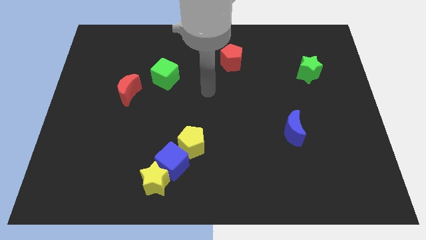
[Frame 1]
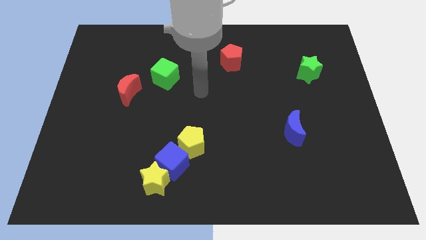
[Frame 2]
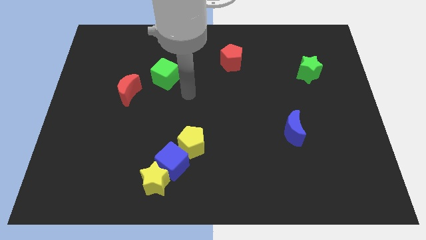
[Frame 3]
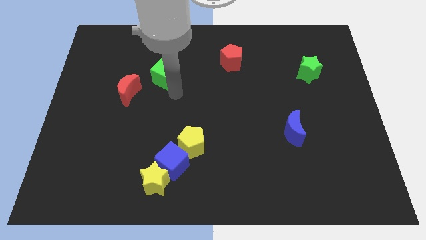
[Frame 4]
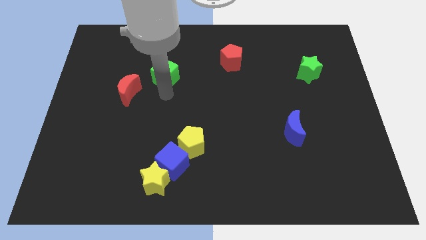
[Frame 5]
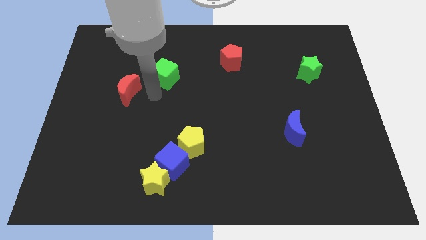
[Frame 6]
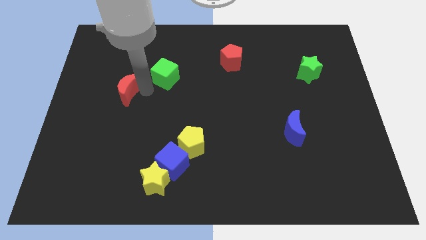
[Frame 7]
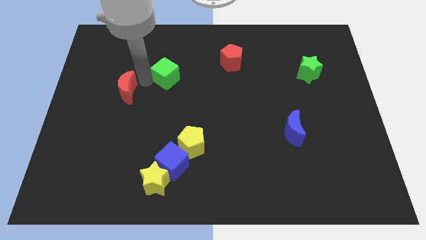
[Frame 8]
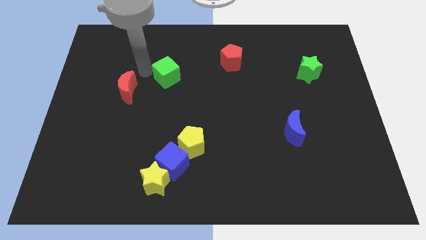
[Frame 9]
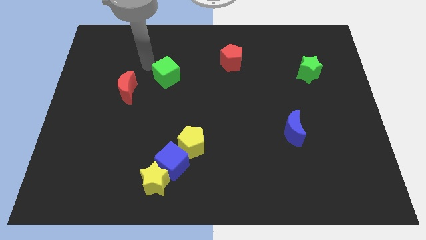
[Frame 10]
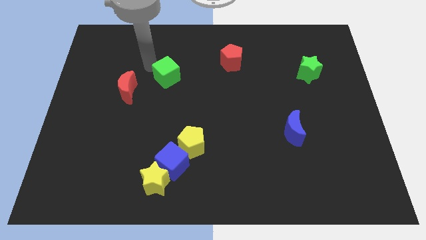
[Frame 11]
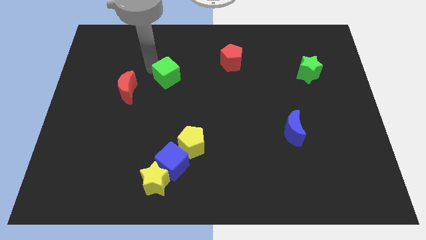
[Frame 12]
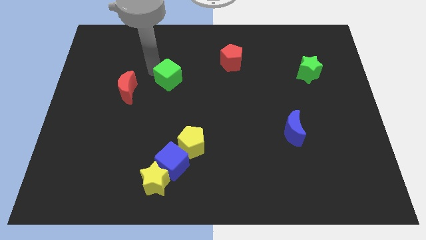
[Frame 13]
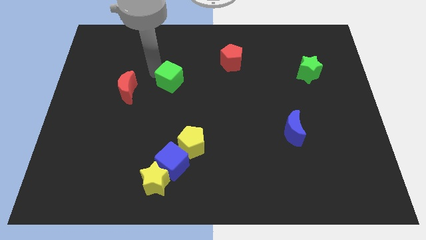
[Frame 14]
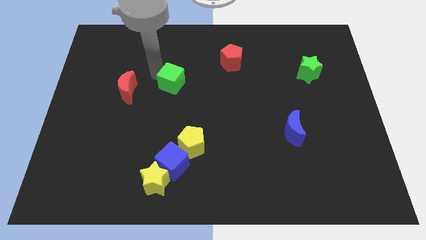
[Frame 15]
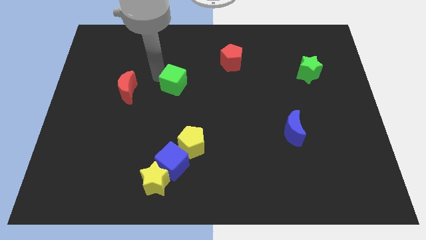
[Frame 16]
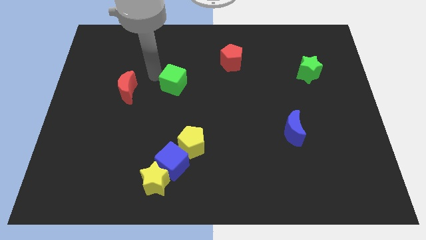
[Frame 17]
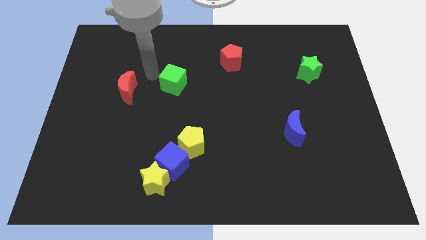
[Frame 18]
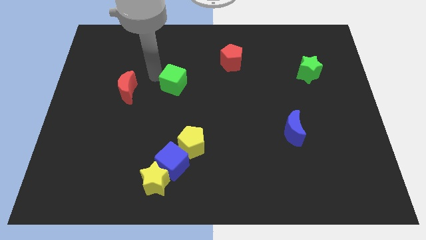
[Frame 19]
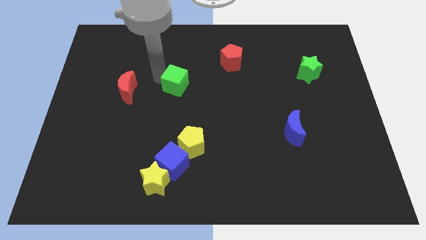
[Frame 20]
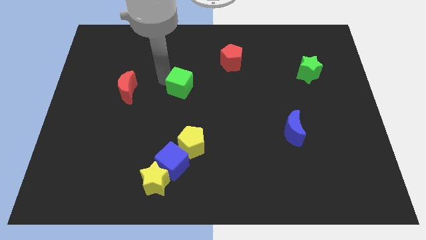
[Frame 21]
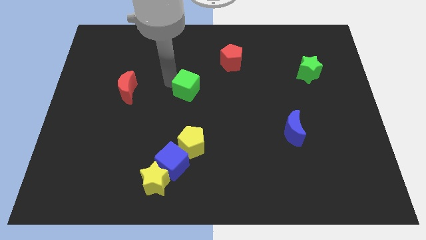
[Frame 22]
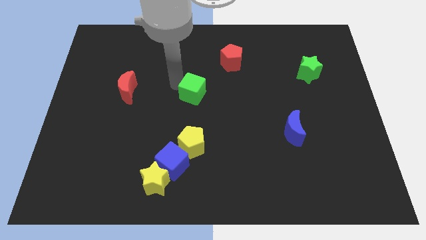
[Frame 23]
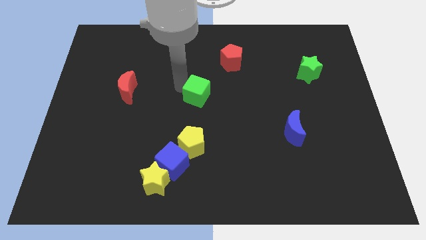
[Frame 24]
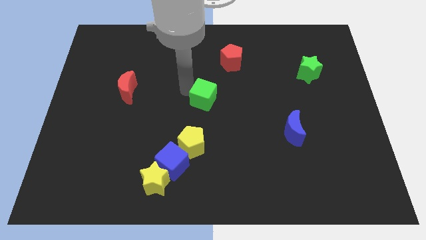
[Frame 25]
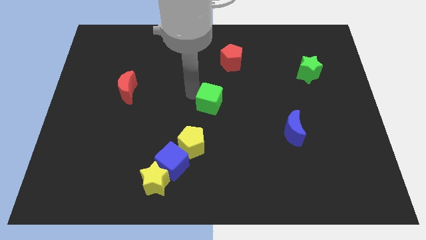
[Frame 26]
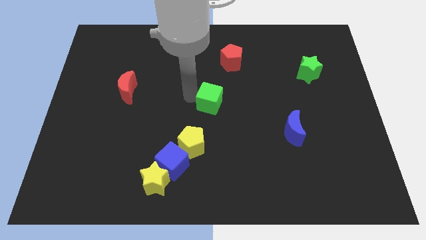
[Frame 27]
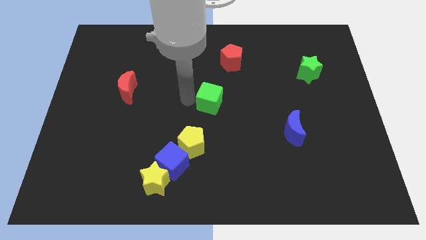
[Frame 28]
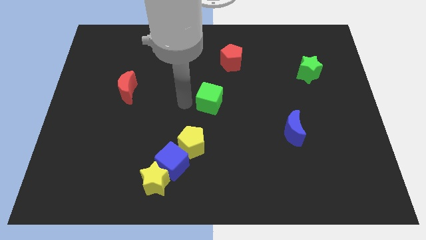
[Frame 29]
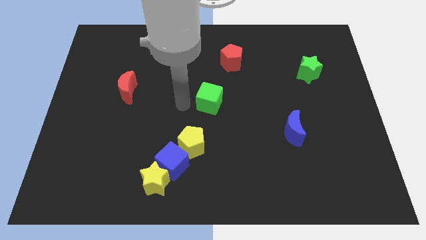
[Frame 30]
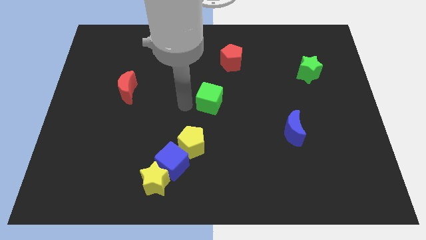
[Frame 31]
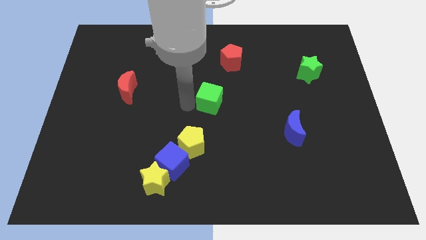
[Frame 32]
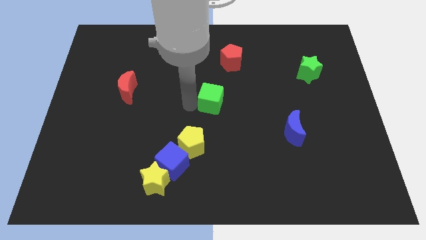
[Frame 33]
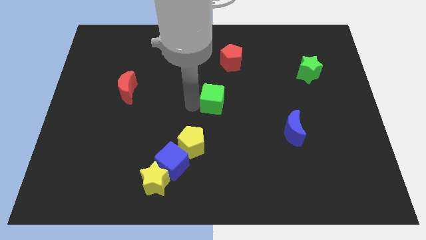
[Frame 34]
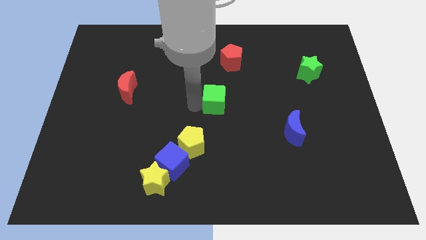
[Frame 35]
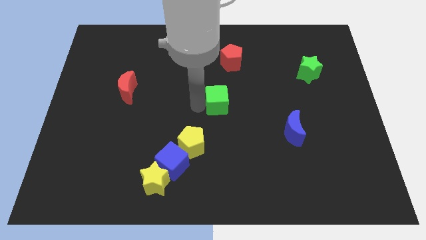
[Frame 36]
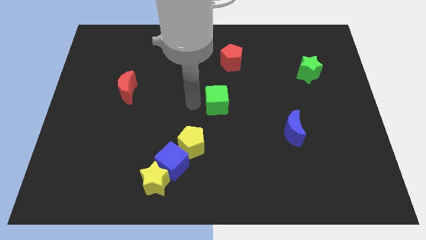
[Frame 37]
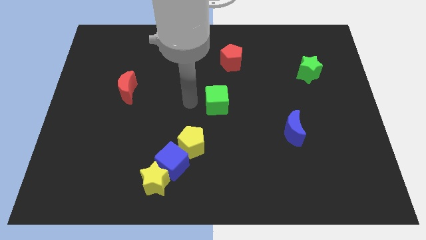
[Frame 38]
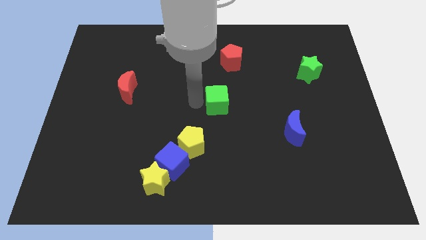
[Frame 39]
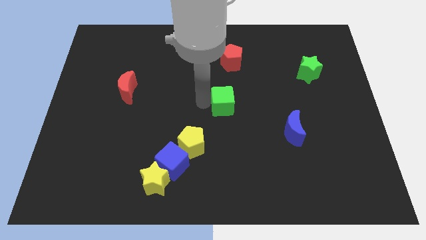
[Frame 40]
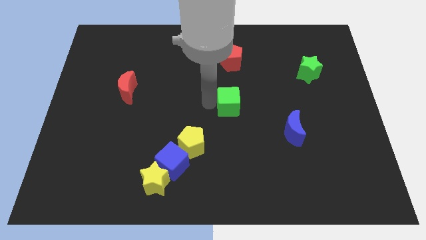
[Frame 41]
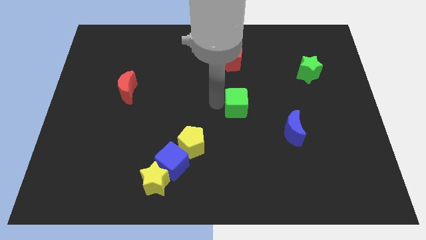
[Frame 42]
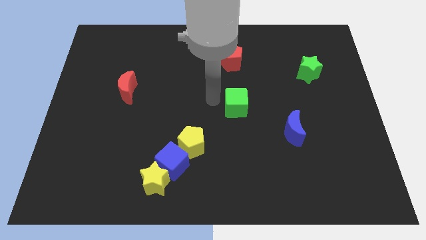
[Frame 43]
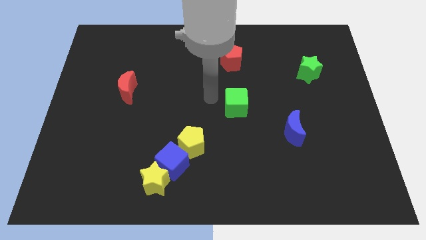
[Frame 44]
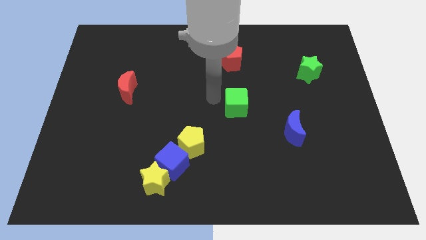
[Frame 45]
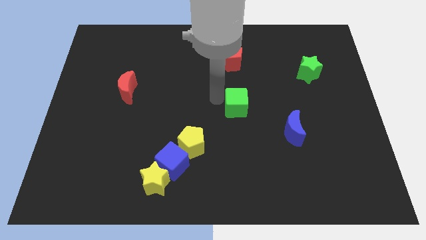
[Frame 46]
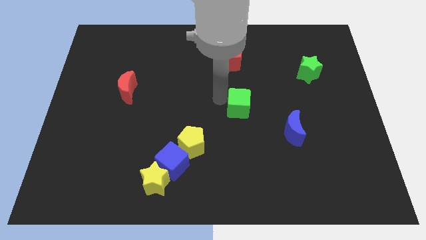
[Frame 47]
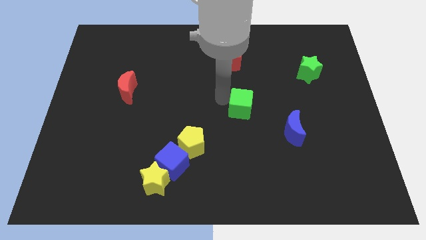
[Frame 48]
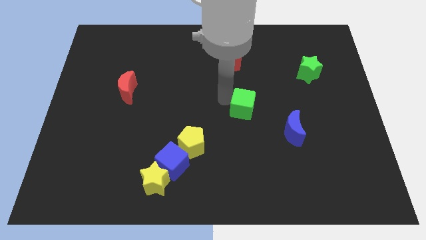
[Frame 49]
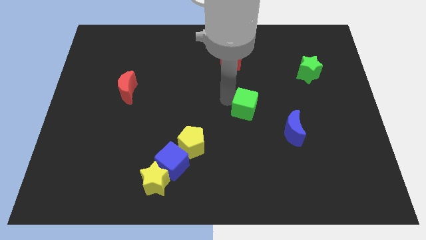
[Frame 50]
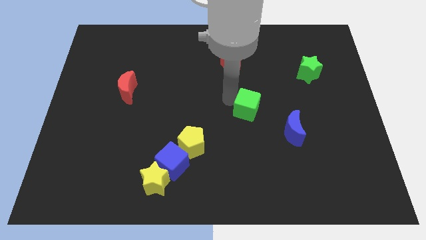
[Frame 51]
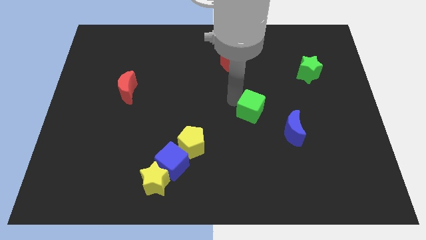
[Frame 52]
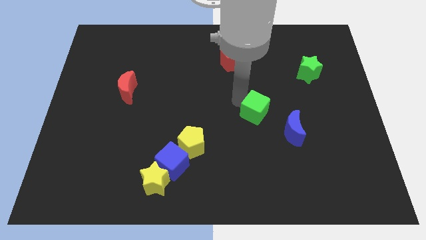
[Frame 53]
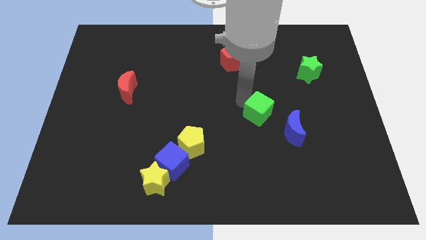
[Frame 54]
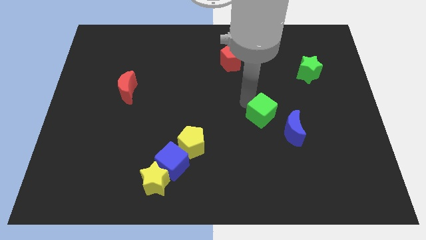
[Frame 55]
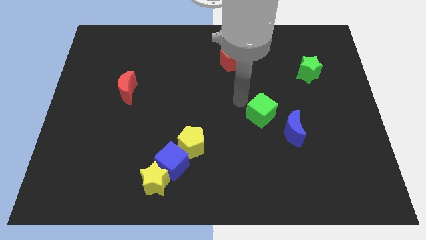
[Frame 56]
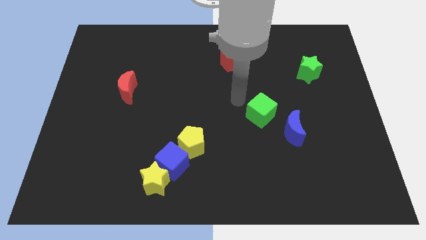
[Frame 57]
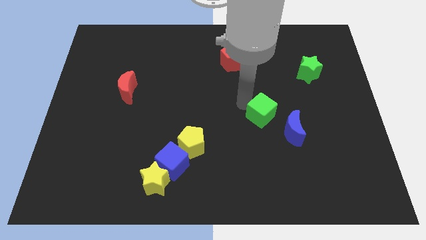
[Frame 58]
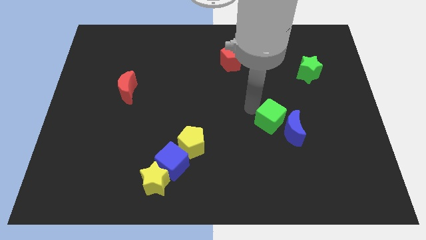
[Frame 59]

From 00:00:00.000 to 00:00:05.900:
push the green cube towards the blue moon

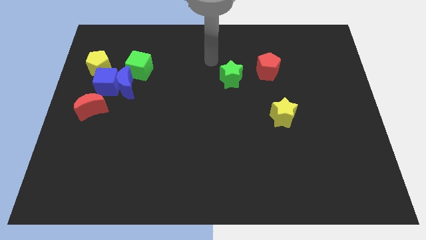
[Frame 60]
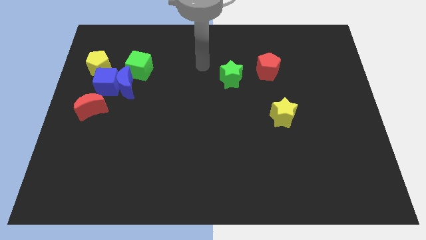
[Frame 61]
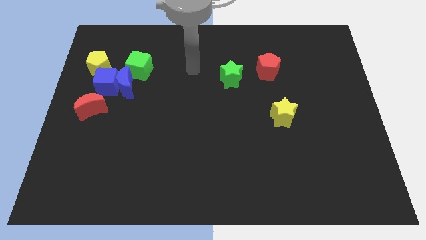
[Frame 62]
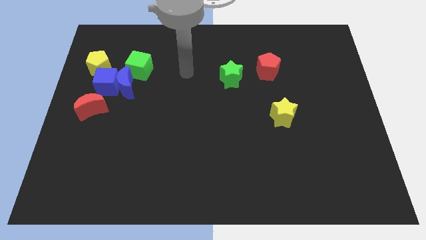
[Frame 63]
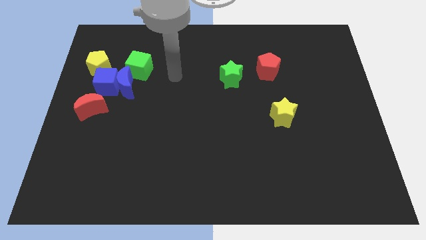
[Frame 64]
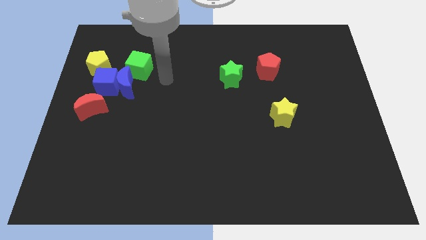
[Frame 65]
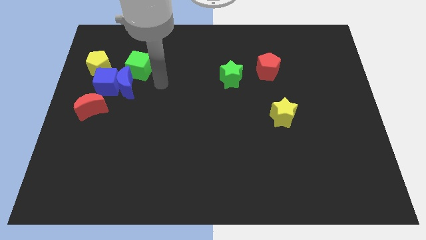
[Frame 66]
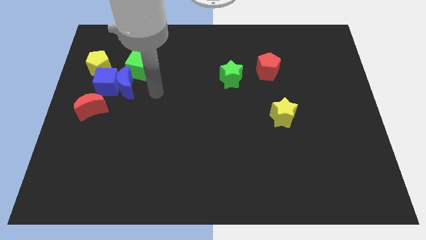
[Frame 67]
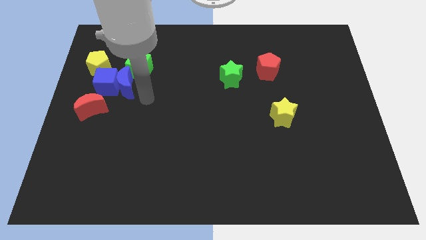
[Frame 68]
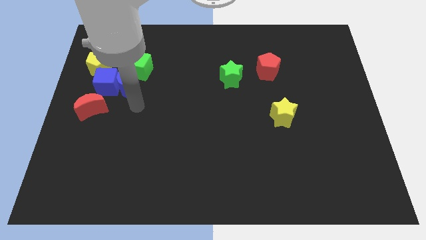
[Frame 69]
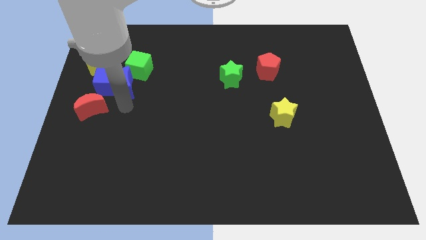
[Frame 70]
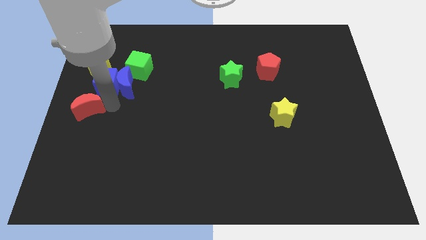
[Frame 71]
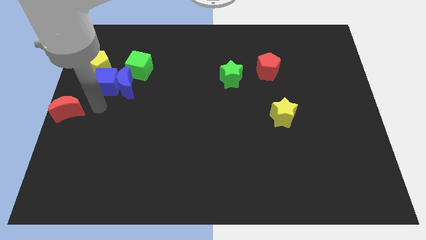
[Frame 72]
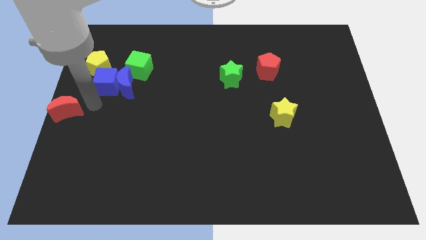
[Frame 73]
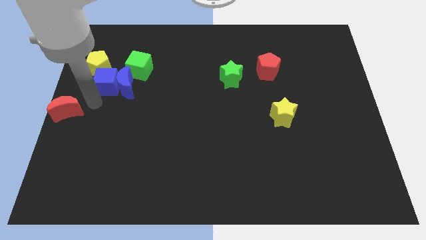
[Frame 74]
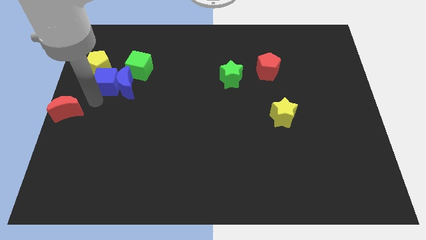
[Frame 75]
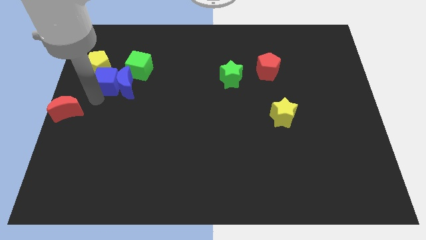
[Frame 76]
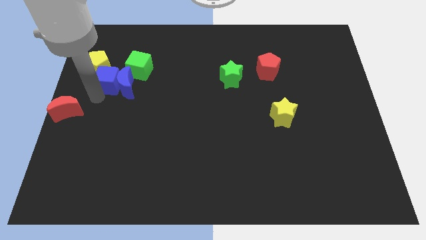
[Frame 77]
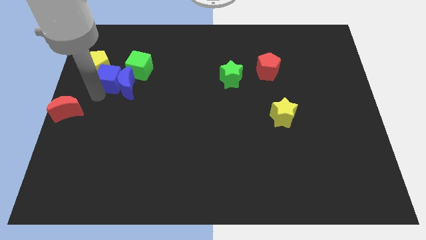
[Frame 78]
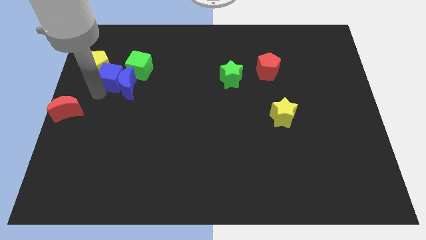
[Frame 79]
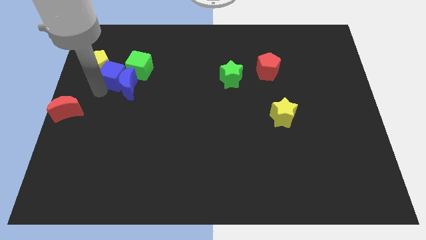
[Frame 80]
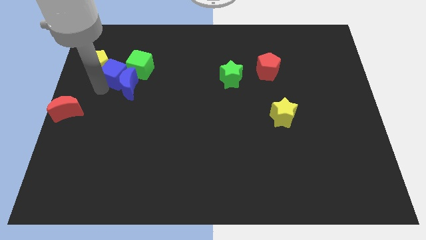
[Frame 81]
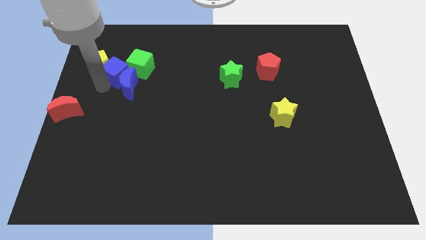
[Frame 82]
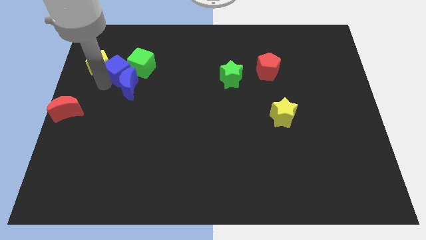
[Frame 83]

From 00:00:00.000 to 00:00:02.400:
push the blue cube close to the green cube
